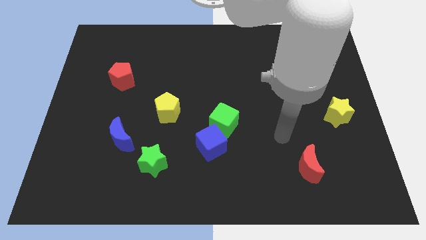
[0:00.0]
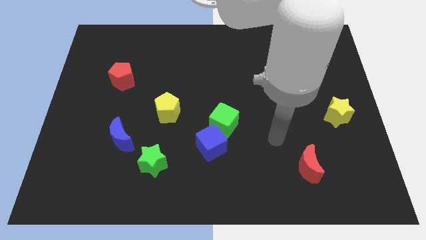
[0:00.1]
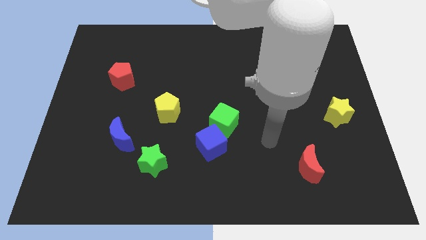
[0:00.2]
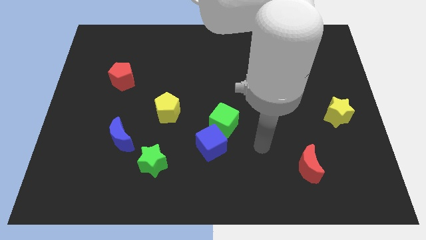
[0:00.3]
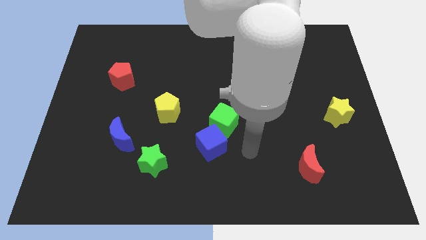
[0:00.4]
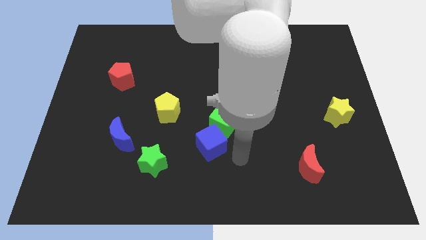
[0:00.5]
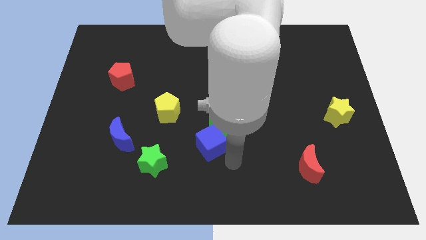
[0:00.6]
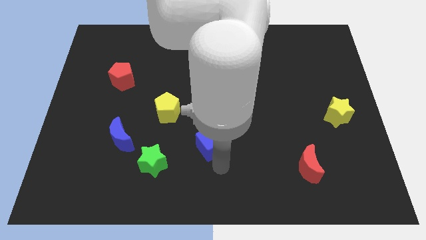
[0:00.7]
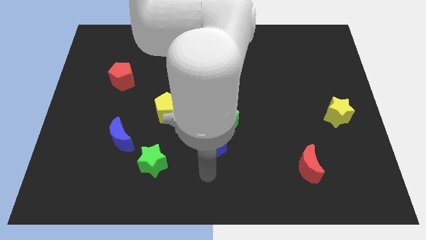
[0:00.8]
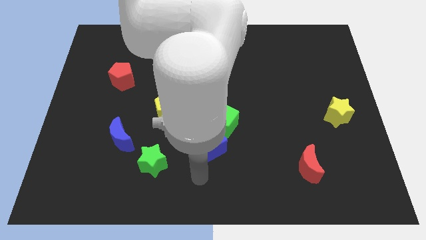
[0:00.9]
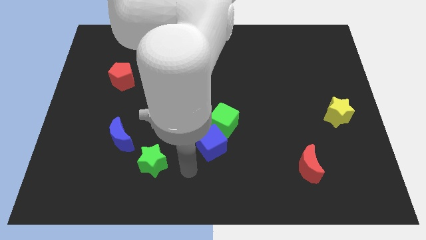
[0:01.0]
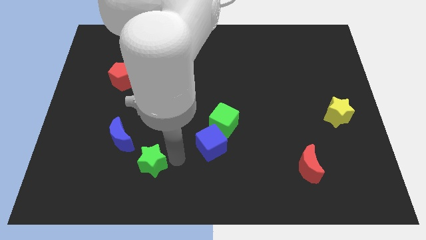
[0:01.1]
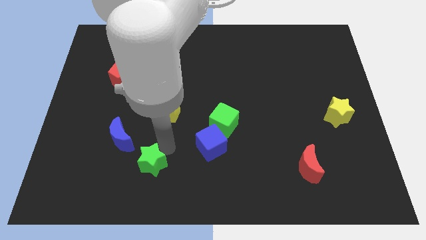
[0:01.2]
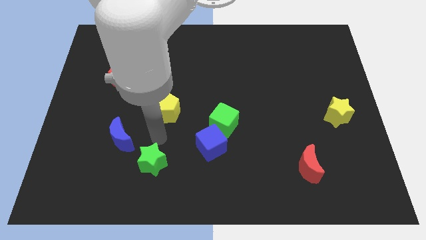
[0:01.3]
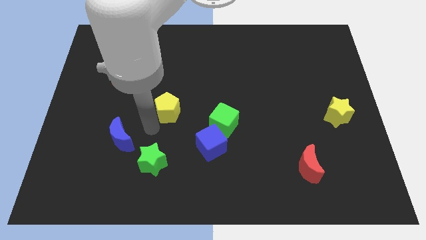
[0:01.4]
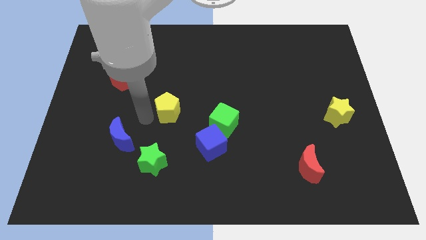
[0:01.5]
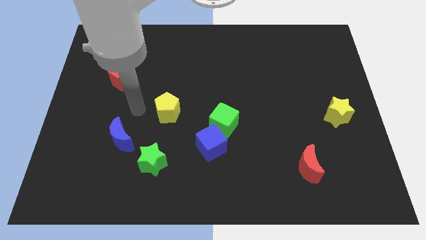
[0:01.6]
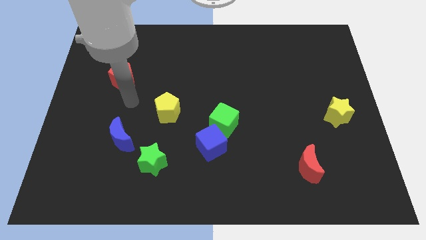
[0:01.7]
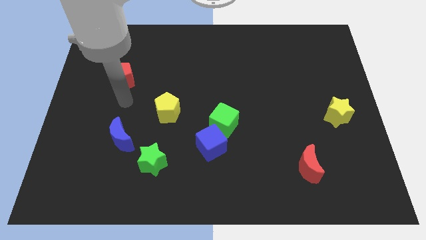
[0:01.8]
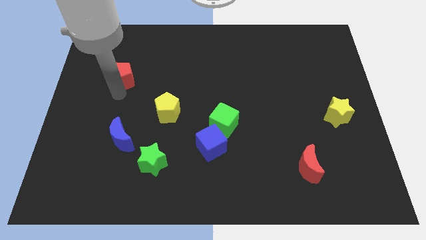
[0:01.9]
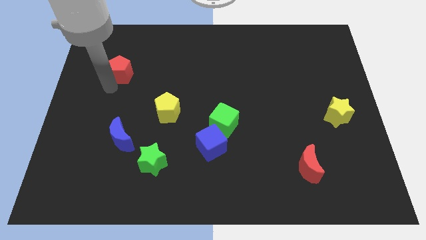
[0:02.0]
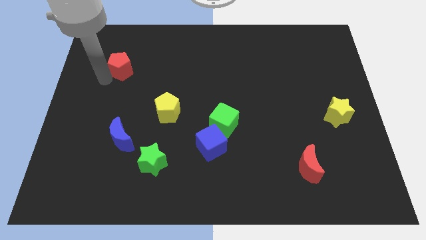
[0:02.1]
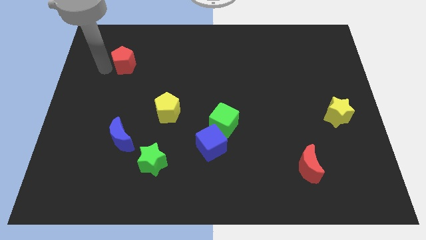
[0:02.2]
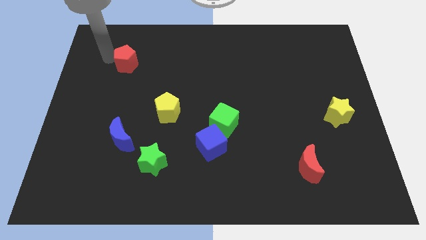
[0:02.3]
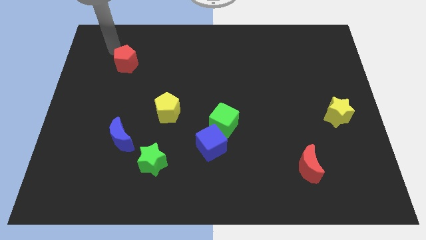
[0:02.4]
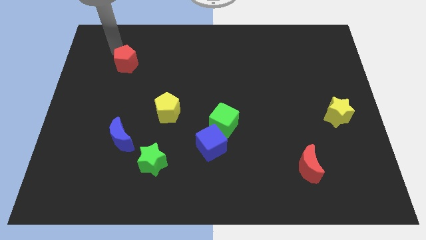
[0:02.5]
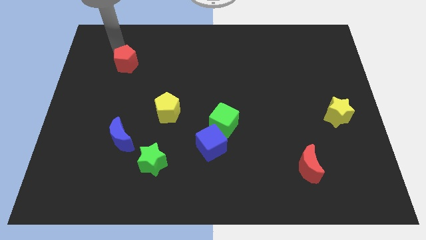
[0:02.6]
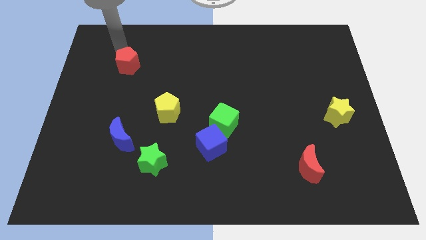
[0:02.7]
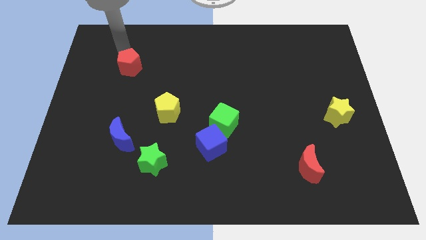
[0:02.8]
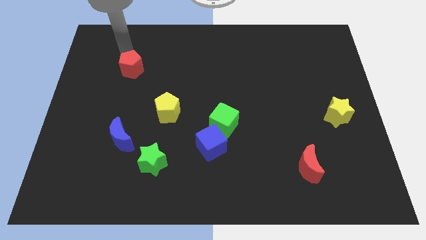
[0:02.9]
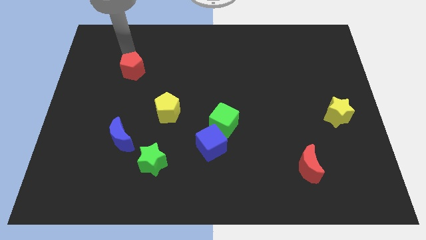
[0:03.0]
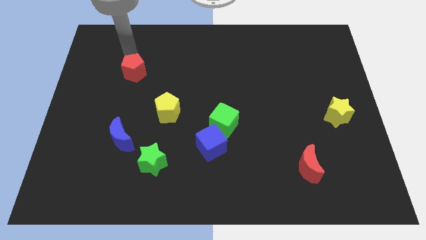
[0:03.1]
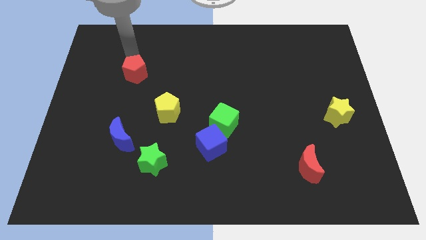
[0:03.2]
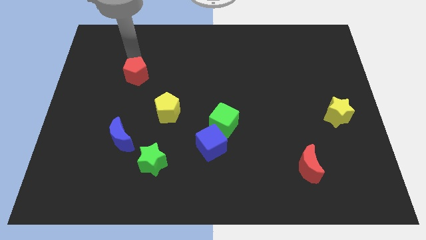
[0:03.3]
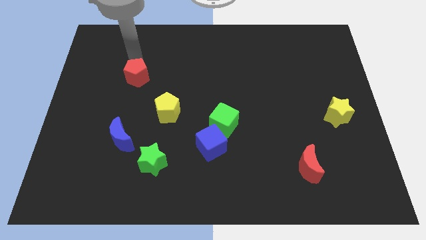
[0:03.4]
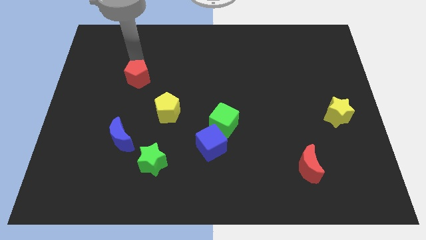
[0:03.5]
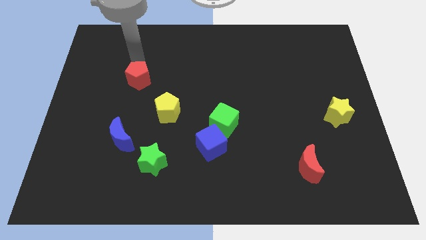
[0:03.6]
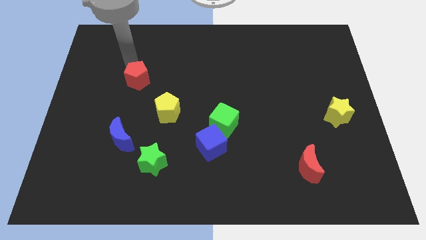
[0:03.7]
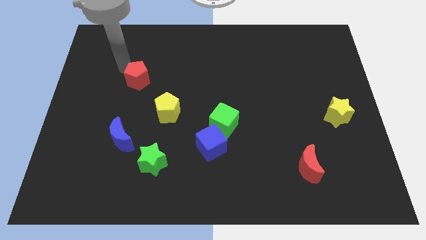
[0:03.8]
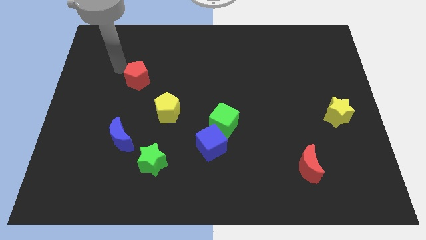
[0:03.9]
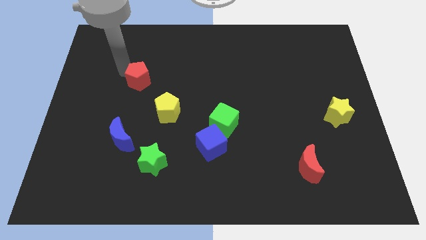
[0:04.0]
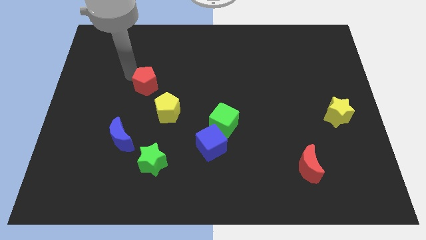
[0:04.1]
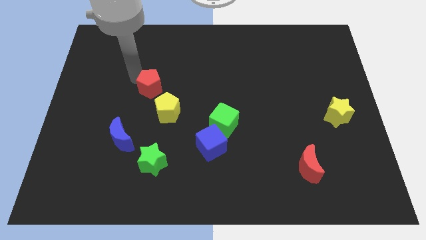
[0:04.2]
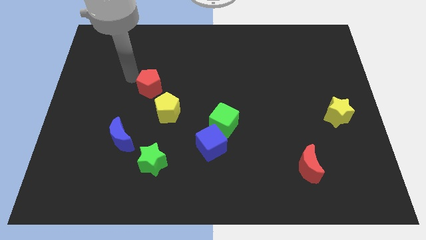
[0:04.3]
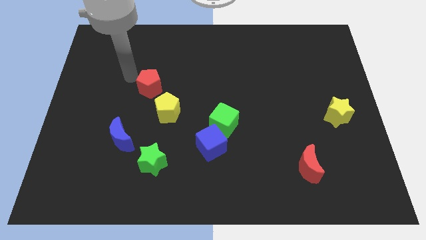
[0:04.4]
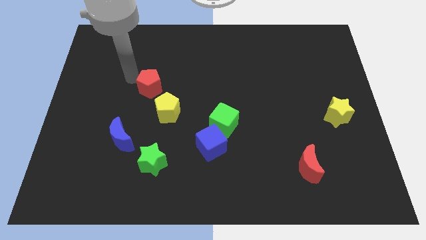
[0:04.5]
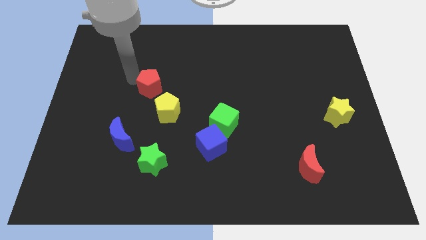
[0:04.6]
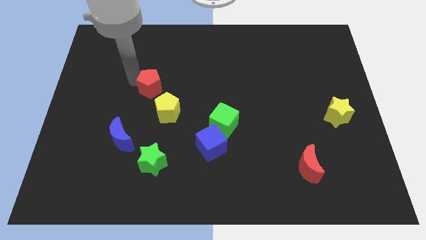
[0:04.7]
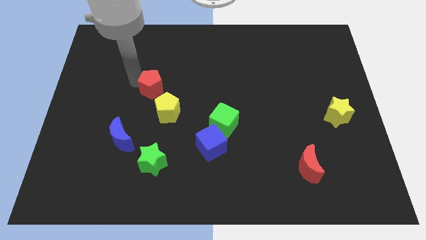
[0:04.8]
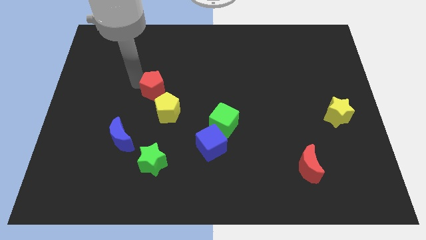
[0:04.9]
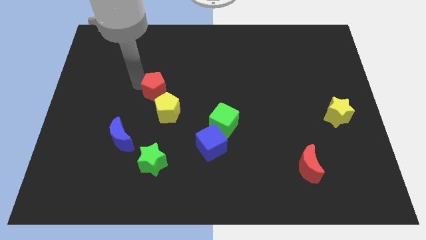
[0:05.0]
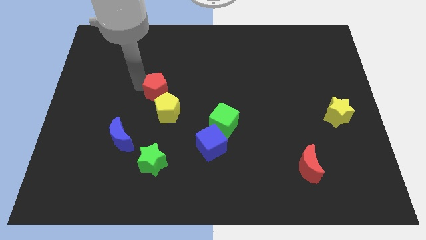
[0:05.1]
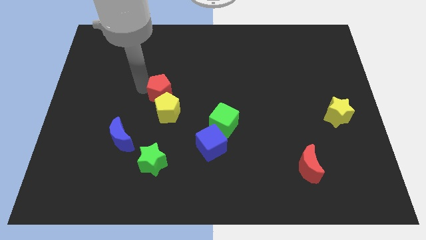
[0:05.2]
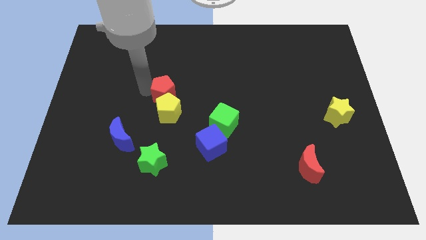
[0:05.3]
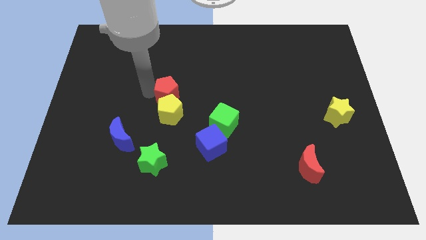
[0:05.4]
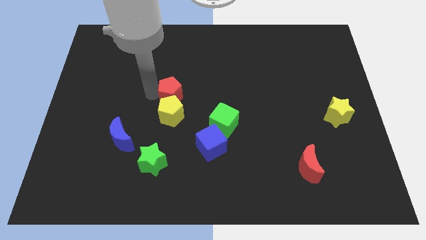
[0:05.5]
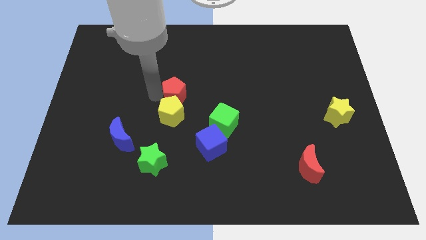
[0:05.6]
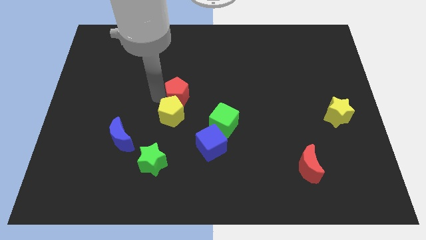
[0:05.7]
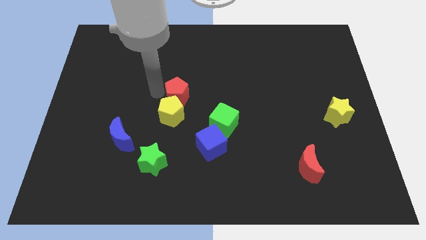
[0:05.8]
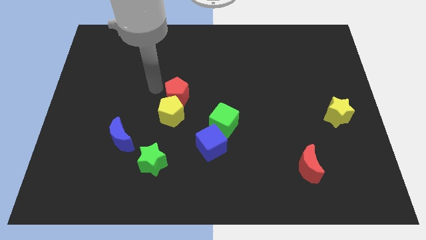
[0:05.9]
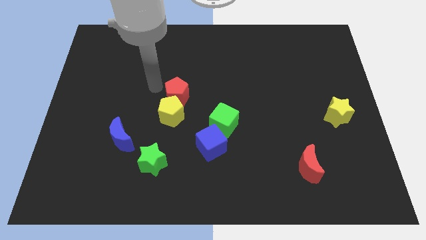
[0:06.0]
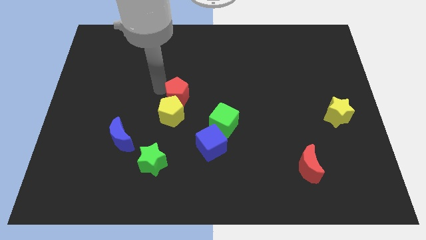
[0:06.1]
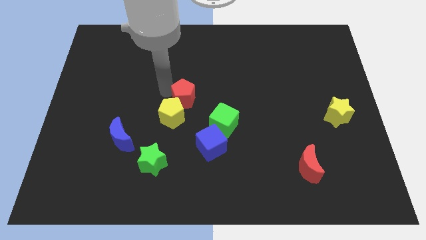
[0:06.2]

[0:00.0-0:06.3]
put the red pentagon diagonally up and to the left of the green cube

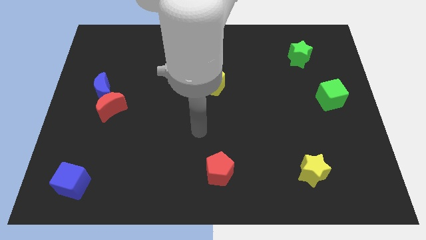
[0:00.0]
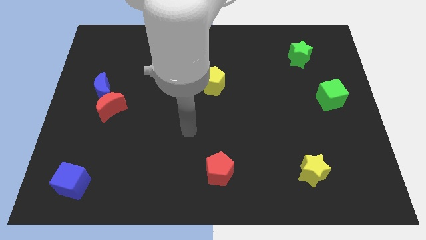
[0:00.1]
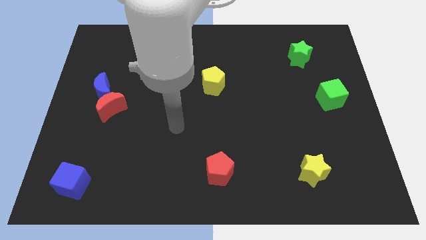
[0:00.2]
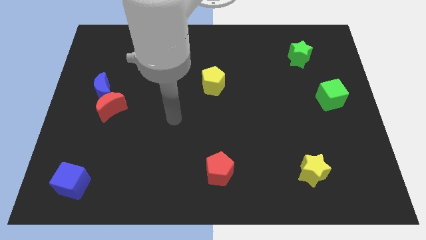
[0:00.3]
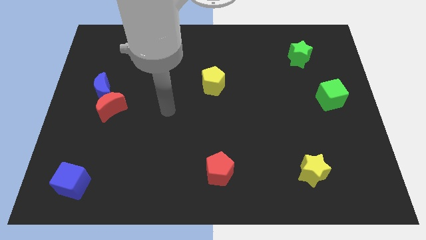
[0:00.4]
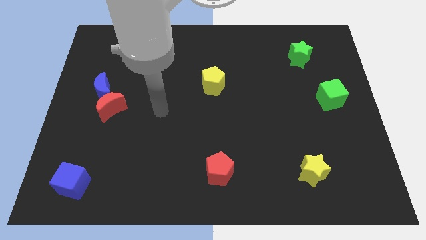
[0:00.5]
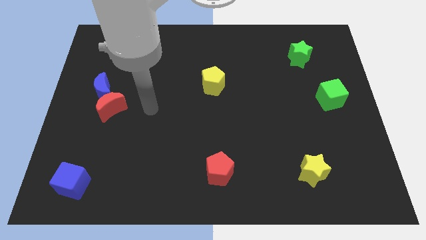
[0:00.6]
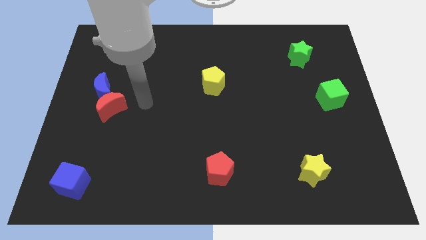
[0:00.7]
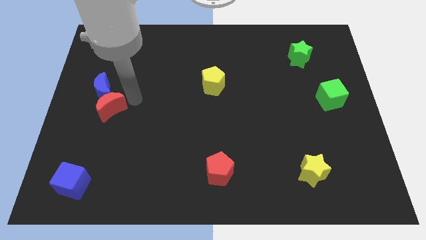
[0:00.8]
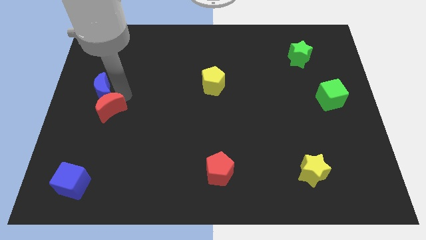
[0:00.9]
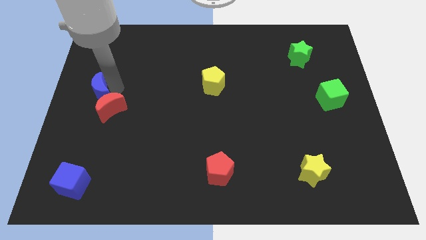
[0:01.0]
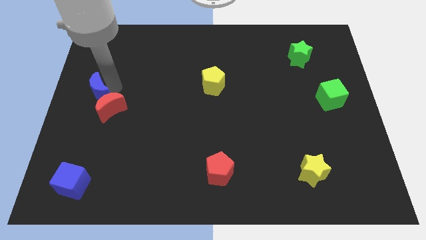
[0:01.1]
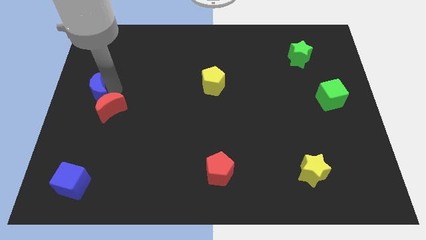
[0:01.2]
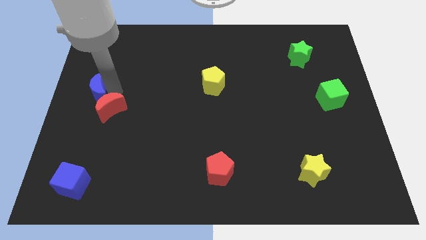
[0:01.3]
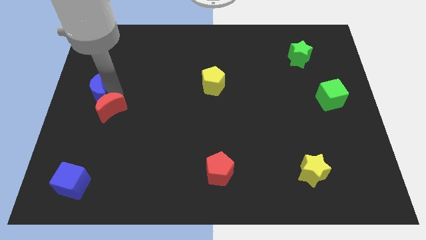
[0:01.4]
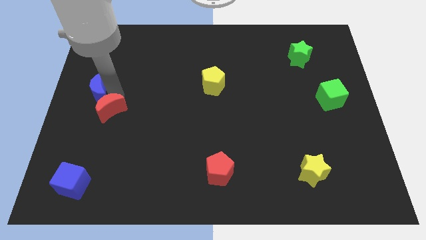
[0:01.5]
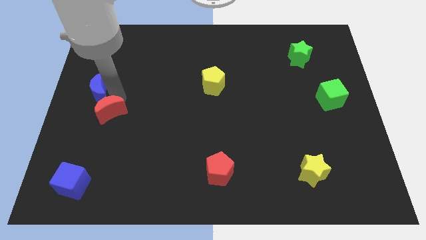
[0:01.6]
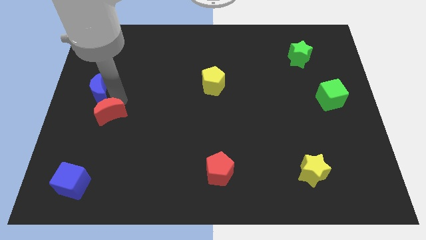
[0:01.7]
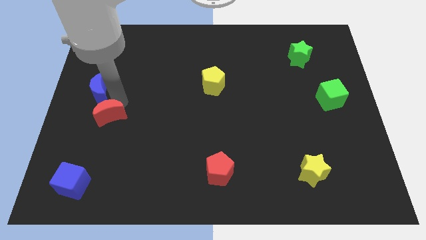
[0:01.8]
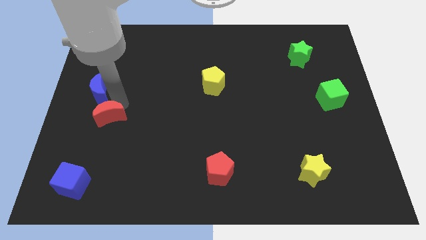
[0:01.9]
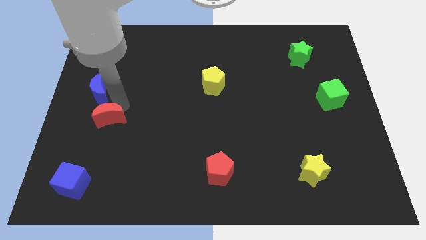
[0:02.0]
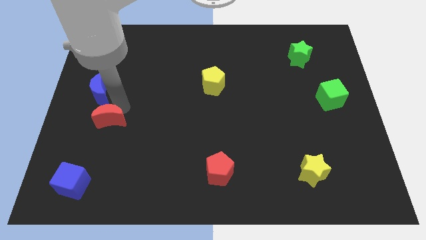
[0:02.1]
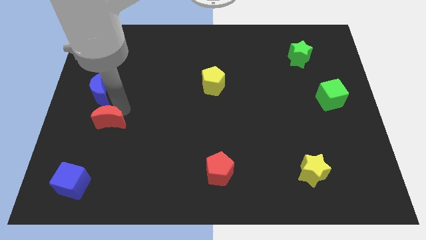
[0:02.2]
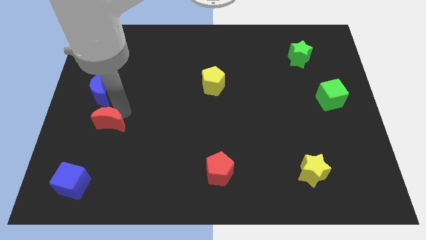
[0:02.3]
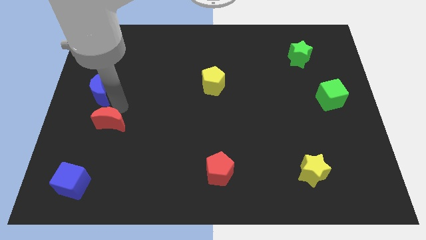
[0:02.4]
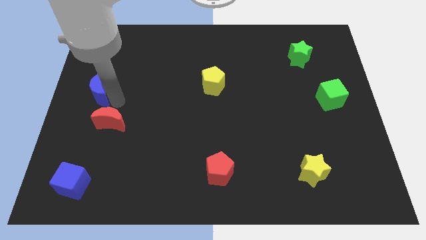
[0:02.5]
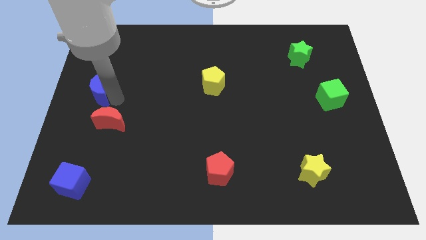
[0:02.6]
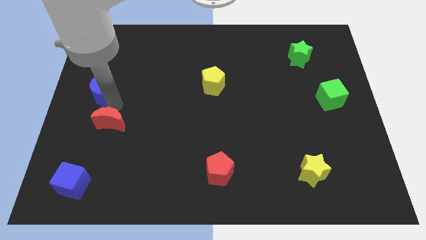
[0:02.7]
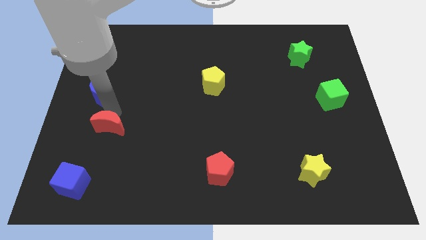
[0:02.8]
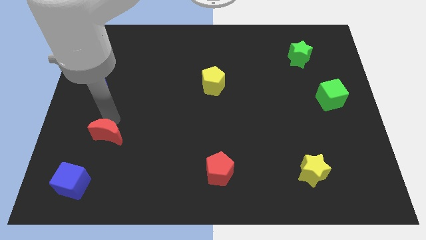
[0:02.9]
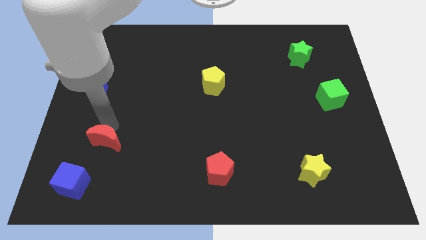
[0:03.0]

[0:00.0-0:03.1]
push the red moon to the top right side of the blue cube
